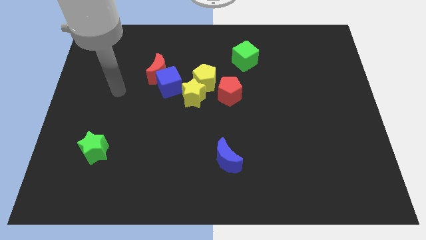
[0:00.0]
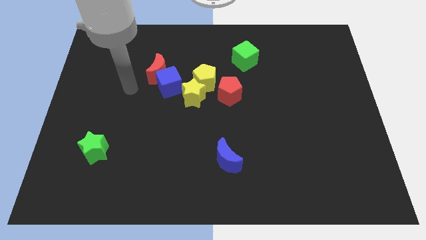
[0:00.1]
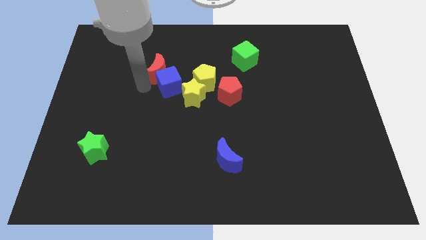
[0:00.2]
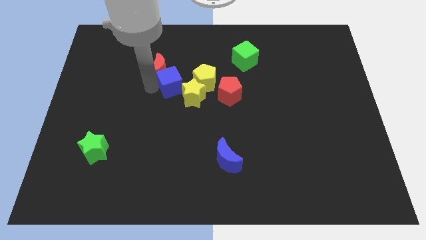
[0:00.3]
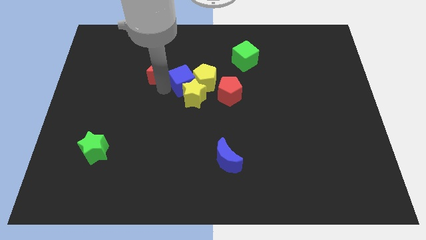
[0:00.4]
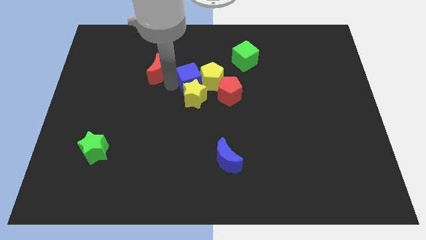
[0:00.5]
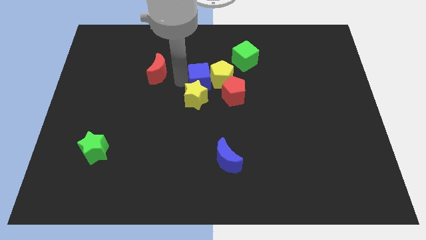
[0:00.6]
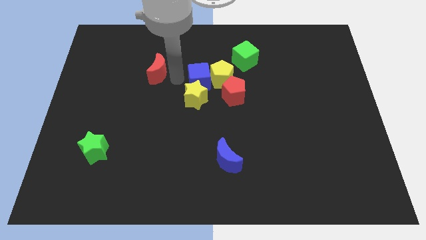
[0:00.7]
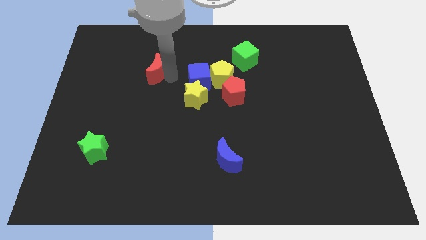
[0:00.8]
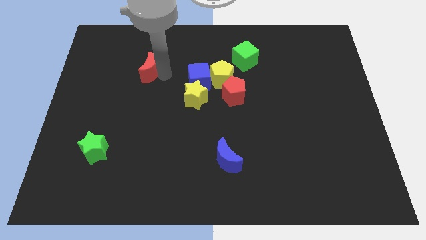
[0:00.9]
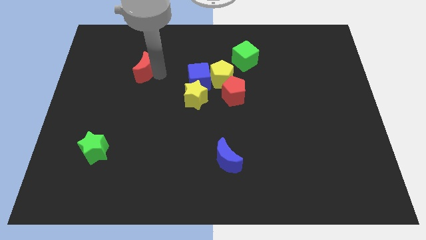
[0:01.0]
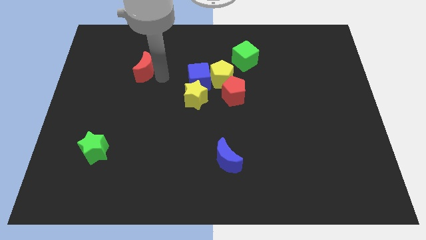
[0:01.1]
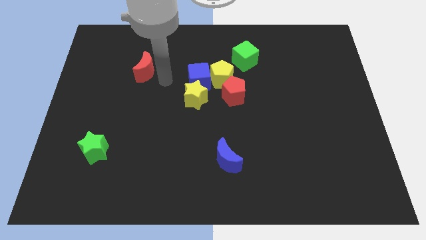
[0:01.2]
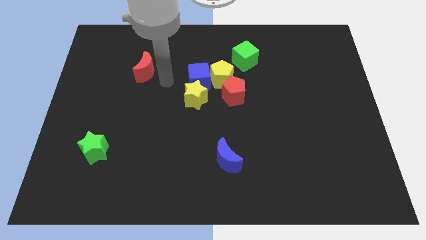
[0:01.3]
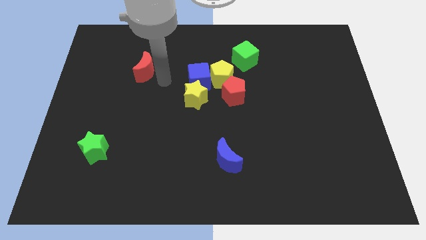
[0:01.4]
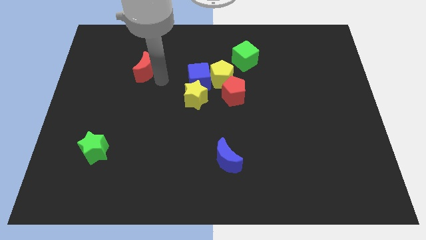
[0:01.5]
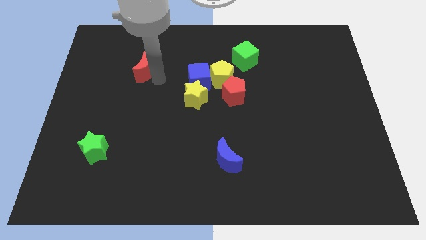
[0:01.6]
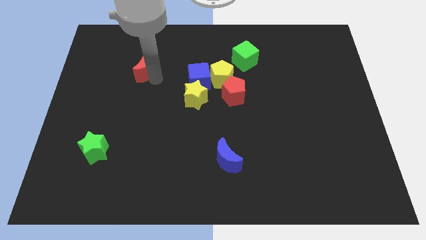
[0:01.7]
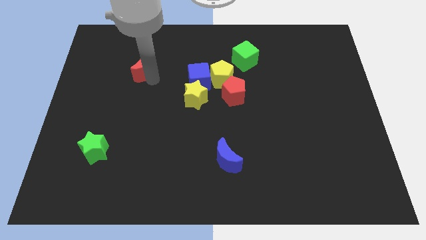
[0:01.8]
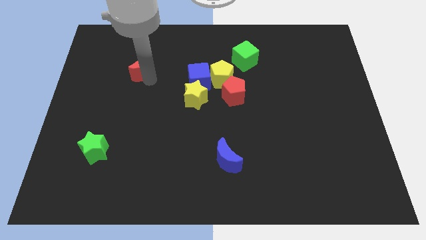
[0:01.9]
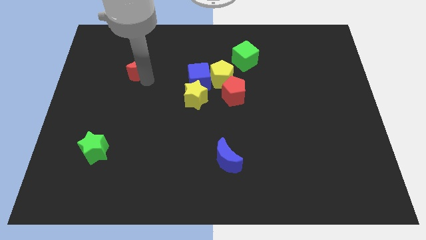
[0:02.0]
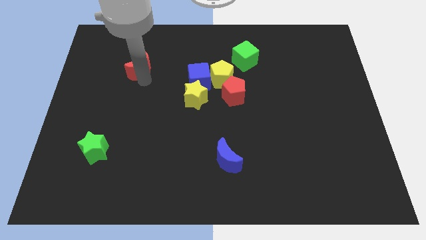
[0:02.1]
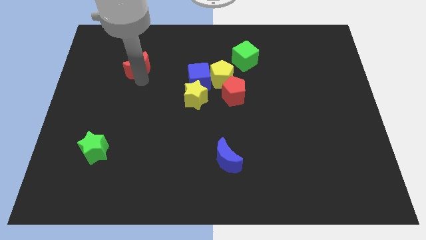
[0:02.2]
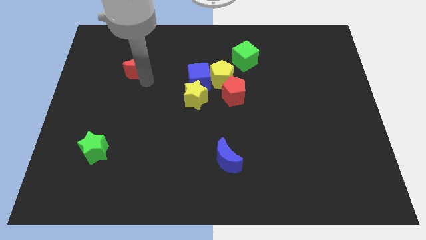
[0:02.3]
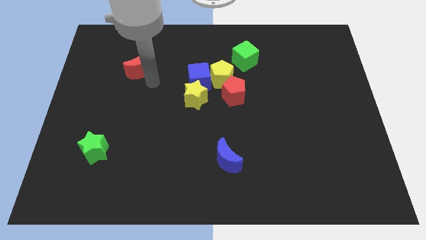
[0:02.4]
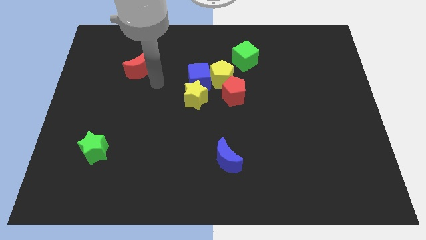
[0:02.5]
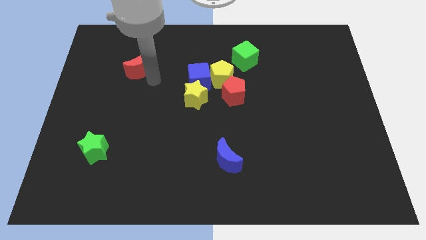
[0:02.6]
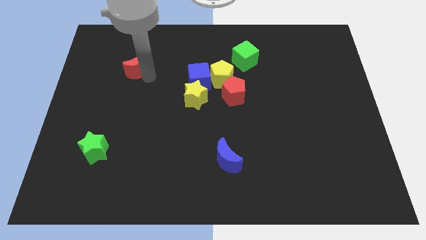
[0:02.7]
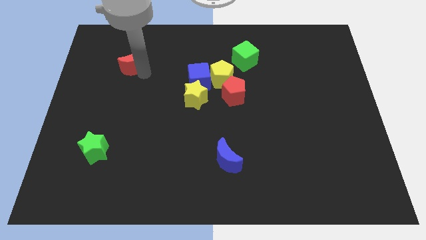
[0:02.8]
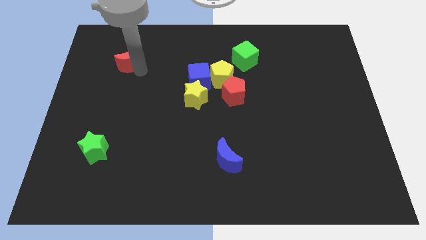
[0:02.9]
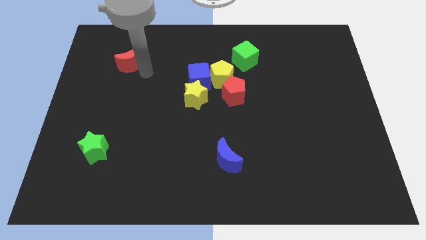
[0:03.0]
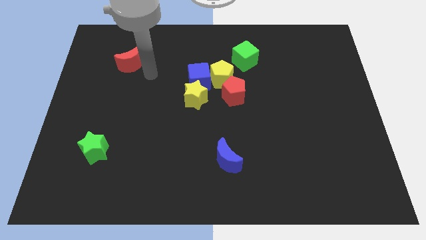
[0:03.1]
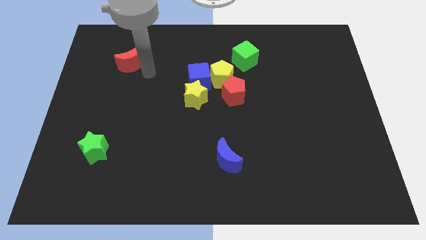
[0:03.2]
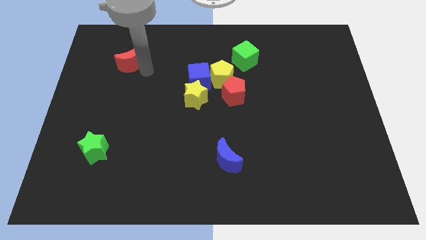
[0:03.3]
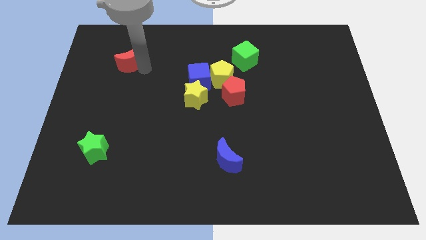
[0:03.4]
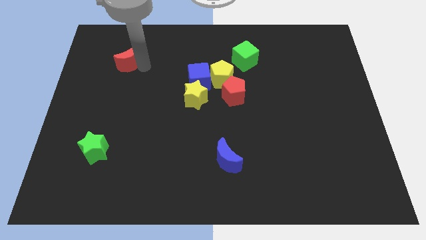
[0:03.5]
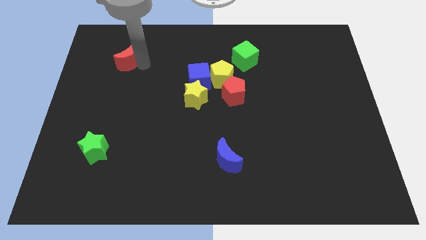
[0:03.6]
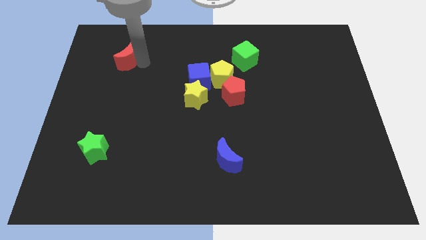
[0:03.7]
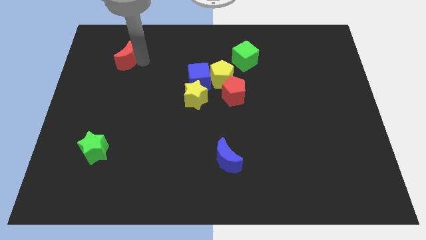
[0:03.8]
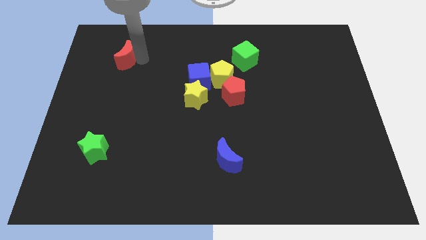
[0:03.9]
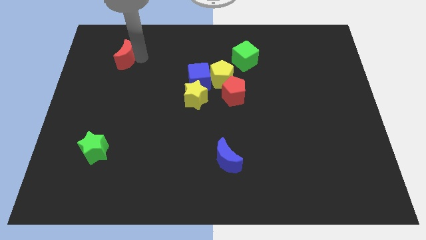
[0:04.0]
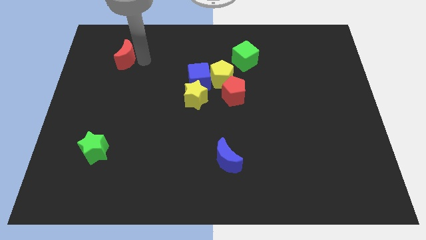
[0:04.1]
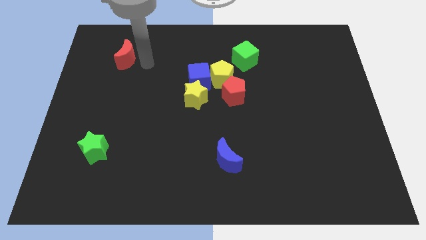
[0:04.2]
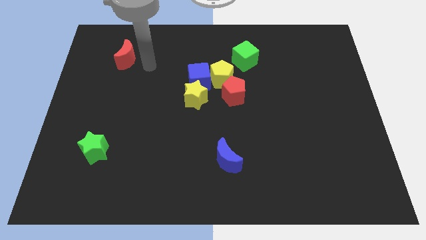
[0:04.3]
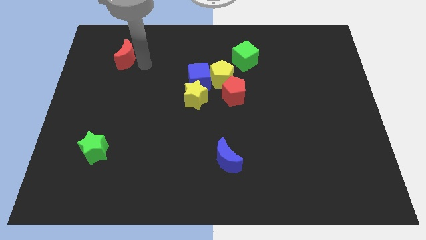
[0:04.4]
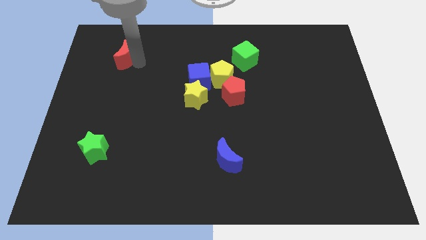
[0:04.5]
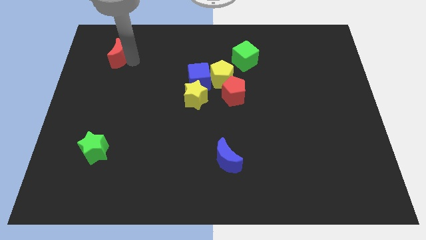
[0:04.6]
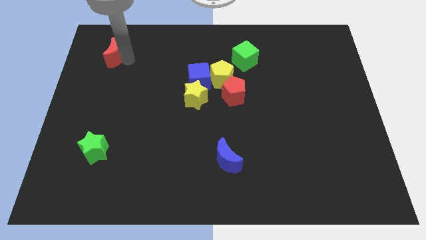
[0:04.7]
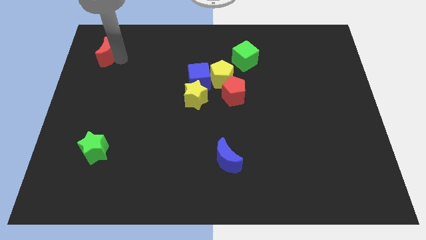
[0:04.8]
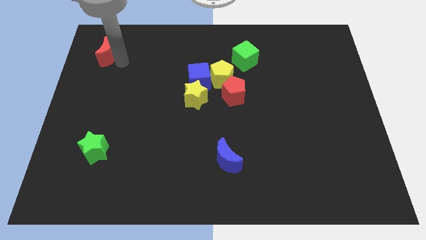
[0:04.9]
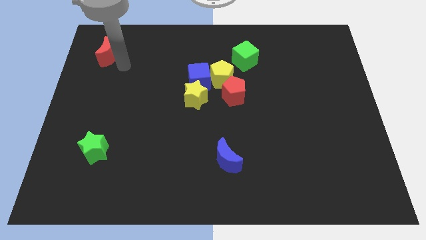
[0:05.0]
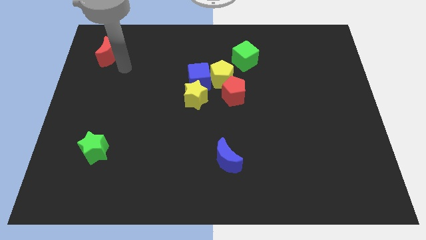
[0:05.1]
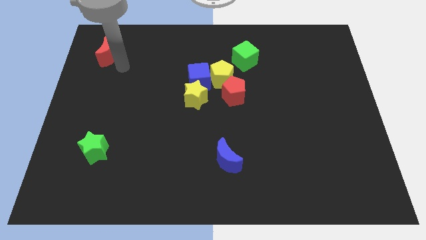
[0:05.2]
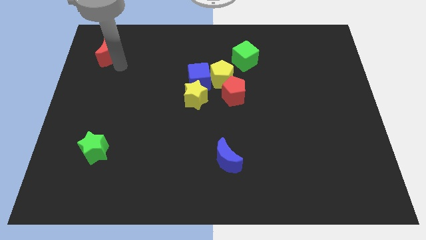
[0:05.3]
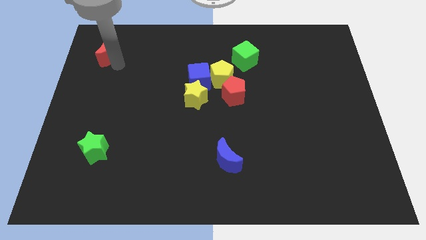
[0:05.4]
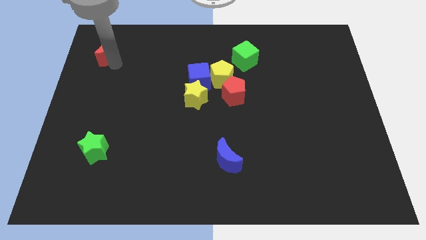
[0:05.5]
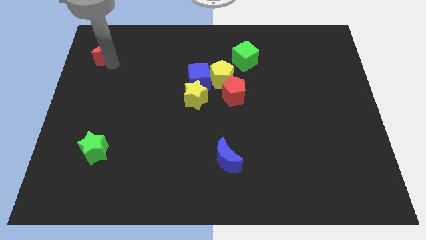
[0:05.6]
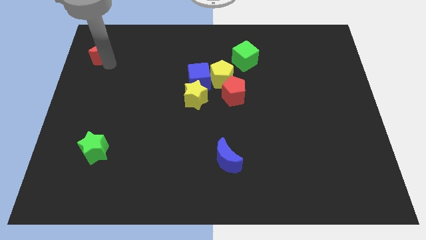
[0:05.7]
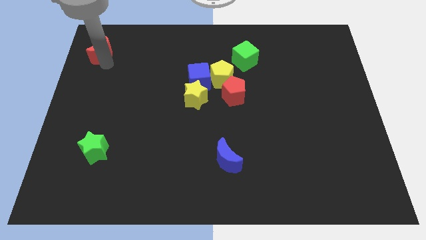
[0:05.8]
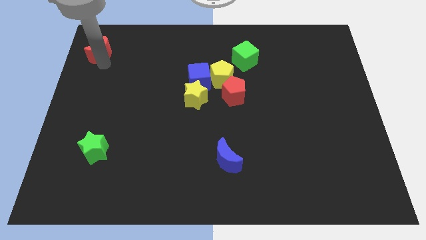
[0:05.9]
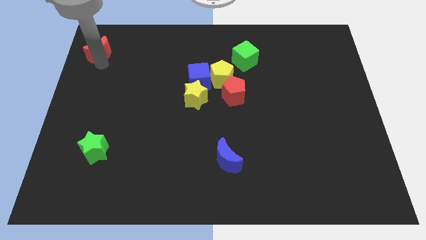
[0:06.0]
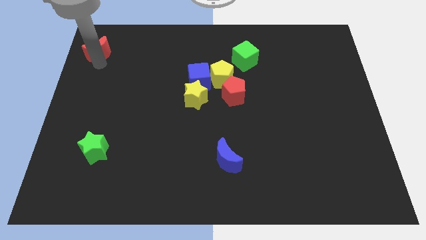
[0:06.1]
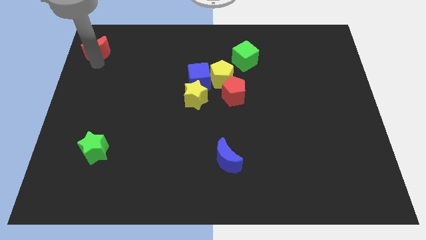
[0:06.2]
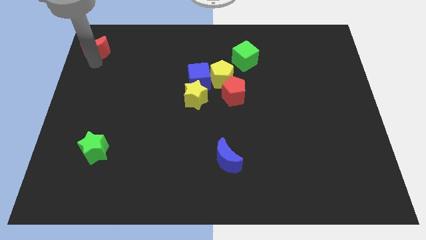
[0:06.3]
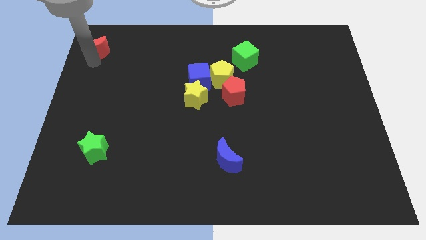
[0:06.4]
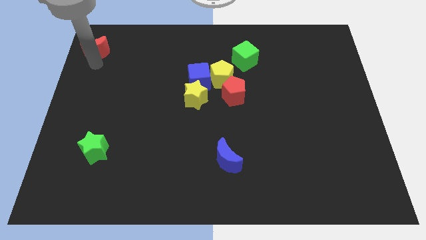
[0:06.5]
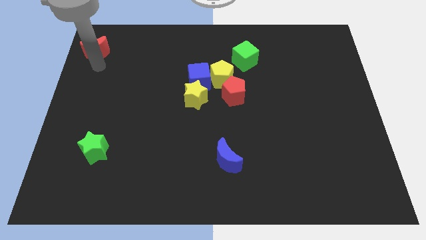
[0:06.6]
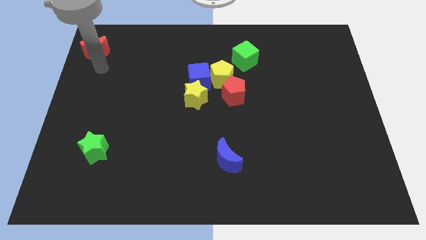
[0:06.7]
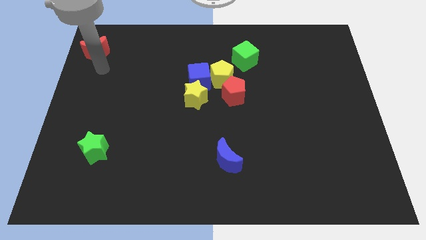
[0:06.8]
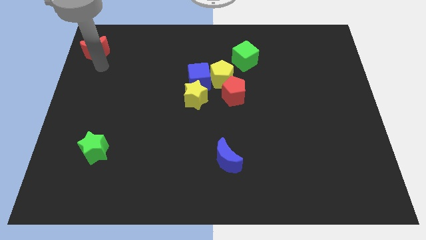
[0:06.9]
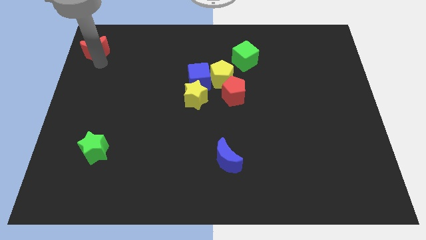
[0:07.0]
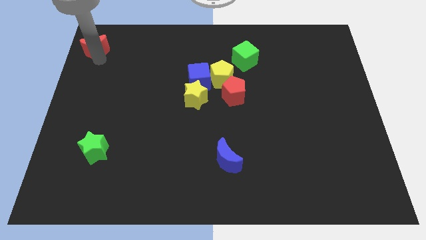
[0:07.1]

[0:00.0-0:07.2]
put the red moon to the top left of the board

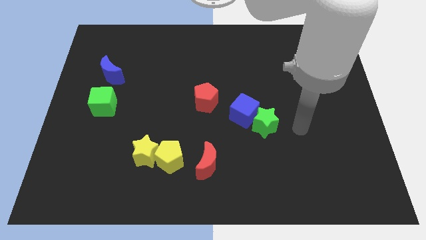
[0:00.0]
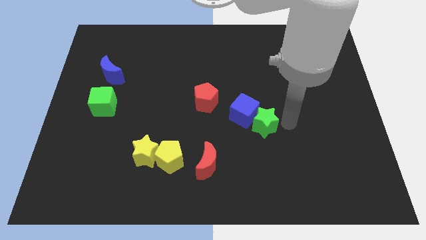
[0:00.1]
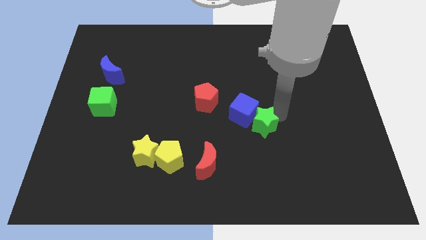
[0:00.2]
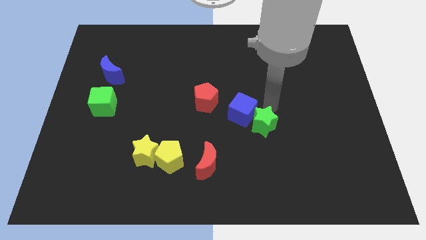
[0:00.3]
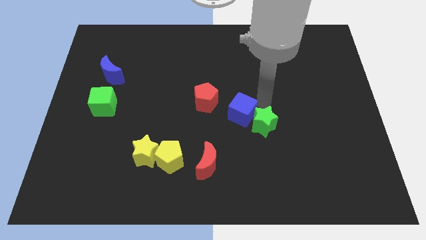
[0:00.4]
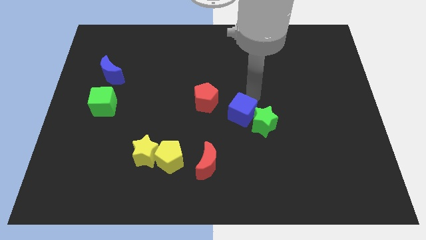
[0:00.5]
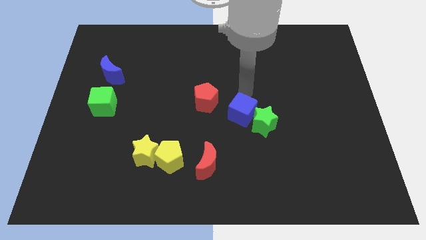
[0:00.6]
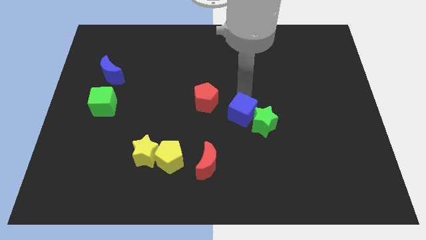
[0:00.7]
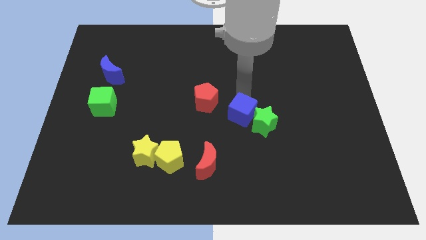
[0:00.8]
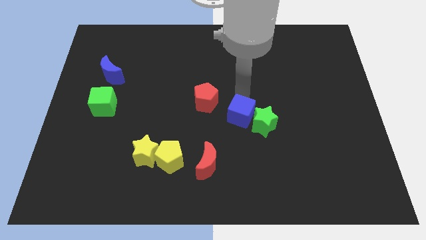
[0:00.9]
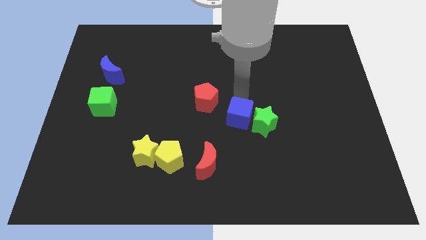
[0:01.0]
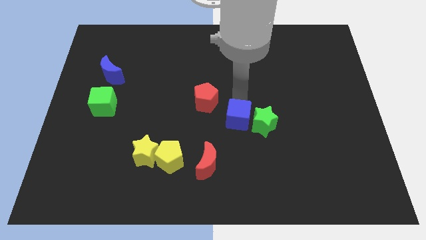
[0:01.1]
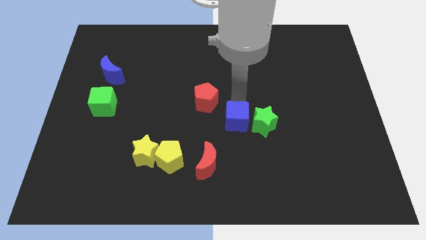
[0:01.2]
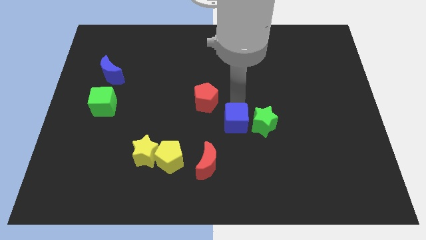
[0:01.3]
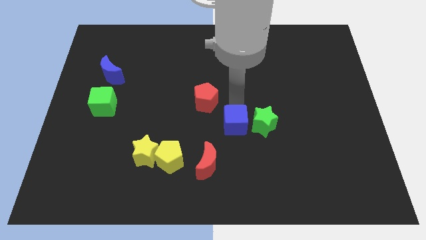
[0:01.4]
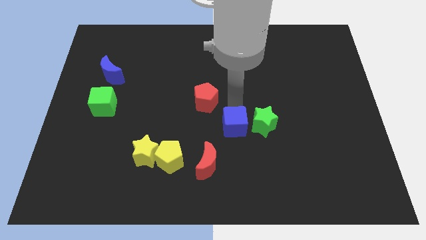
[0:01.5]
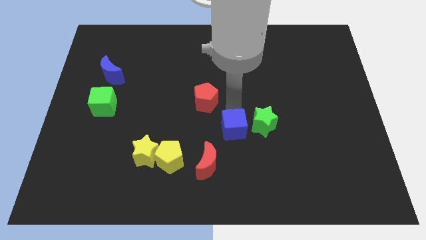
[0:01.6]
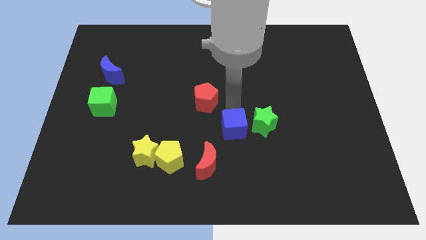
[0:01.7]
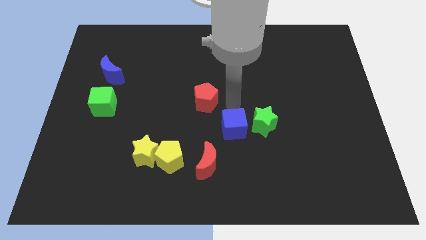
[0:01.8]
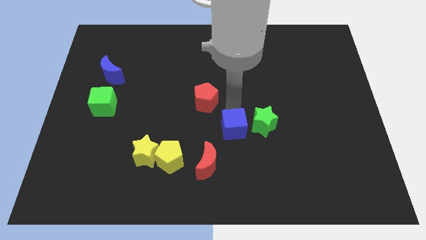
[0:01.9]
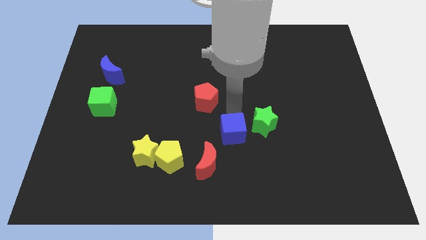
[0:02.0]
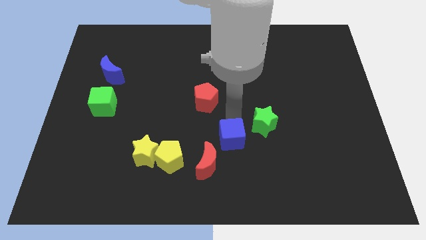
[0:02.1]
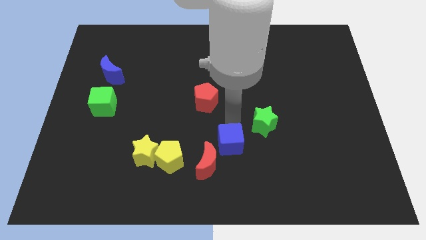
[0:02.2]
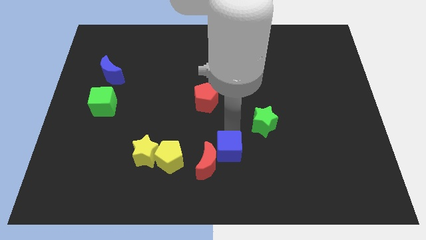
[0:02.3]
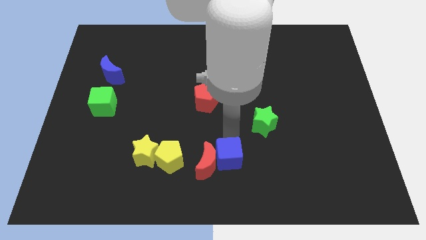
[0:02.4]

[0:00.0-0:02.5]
move the blue cube to the bottom
